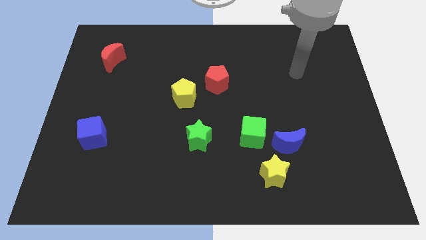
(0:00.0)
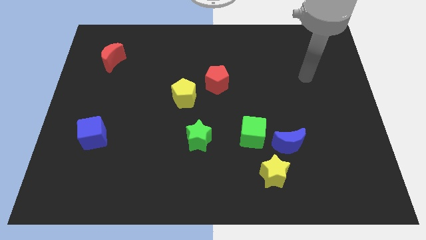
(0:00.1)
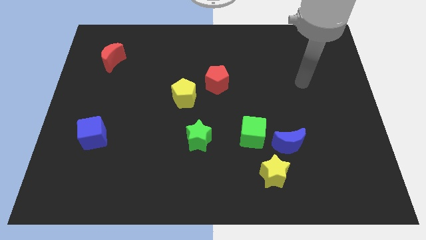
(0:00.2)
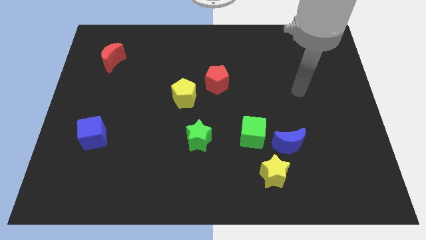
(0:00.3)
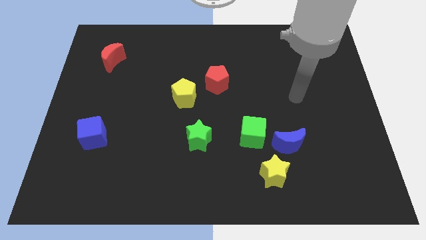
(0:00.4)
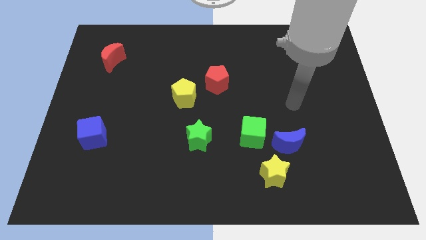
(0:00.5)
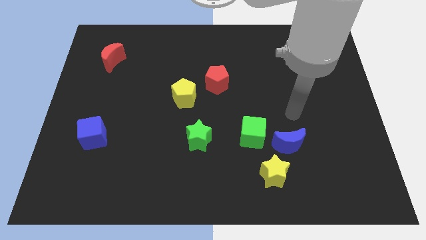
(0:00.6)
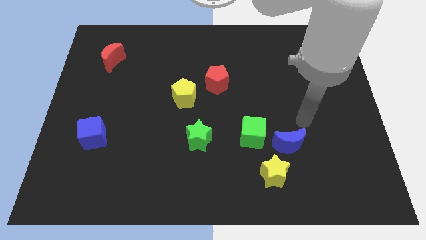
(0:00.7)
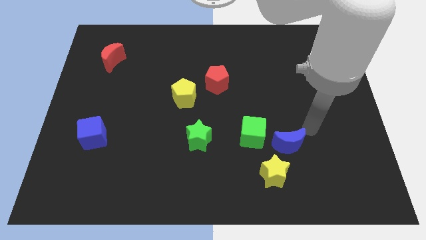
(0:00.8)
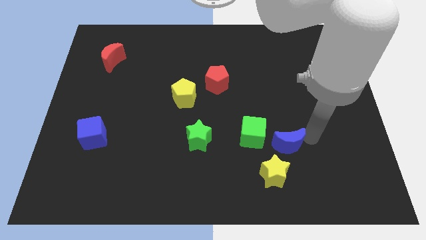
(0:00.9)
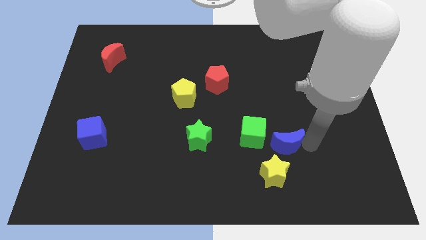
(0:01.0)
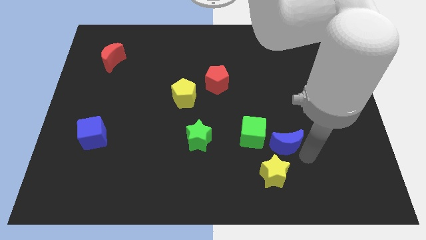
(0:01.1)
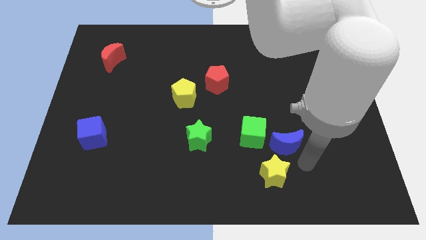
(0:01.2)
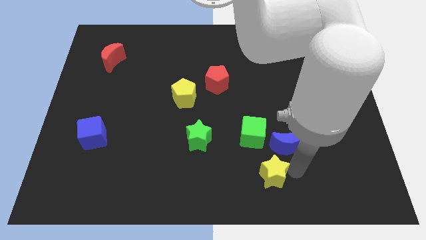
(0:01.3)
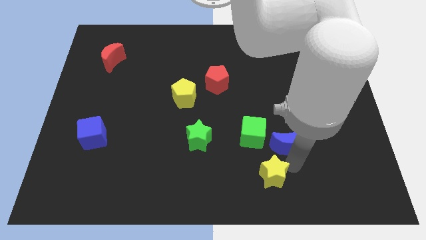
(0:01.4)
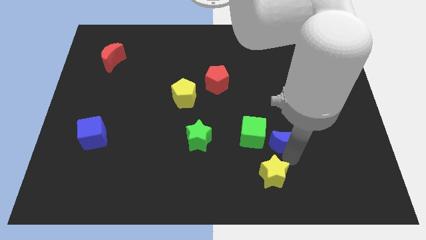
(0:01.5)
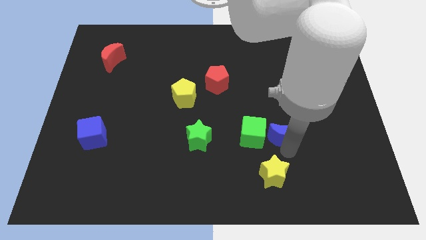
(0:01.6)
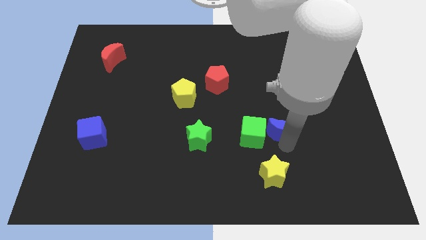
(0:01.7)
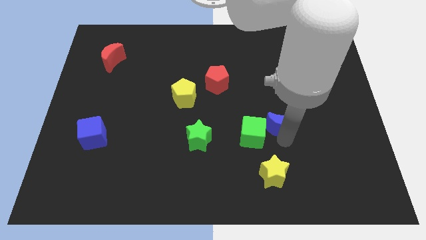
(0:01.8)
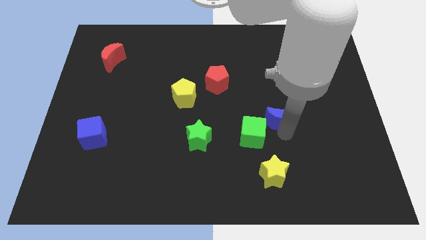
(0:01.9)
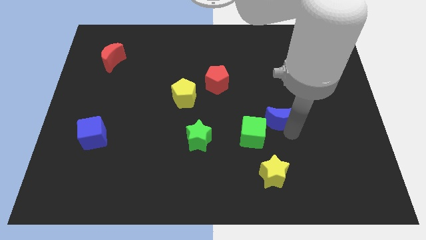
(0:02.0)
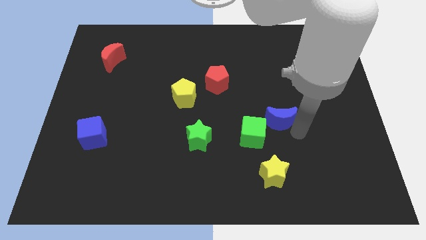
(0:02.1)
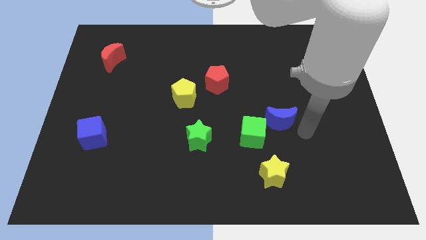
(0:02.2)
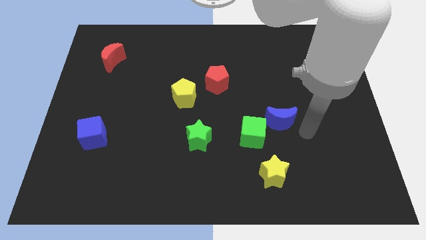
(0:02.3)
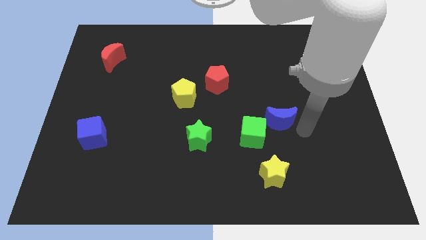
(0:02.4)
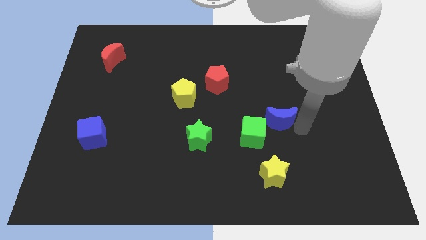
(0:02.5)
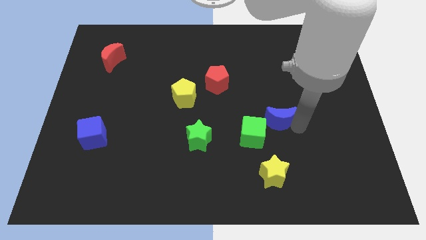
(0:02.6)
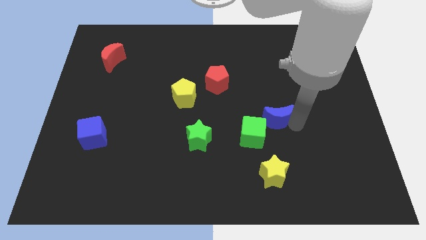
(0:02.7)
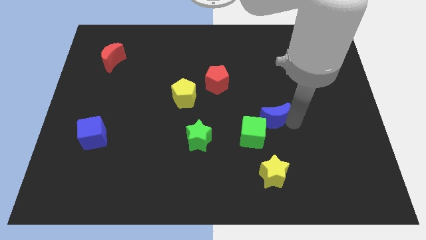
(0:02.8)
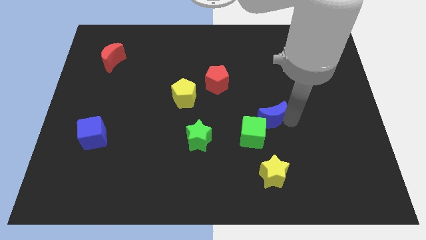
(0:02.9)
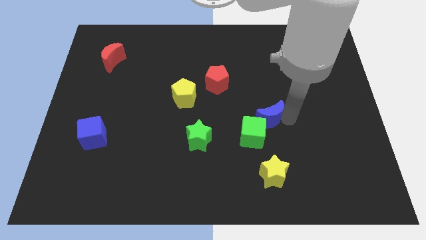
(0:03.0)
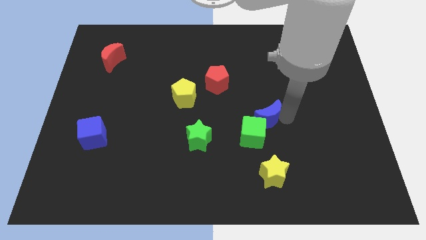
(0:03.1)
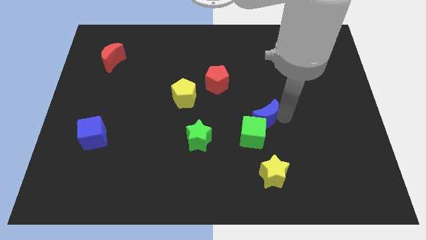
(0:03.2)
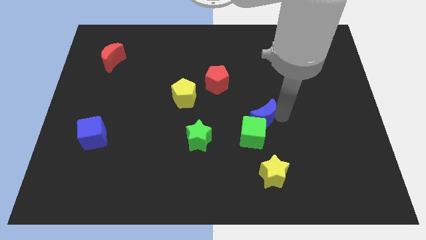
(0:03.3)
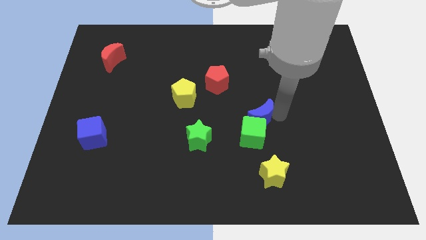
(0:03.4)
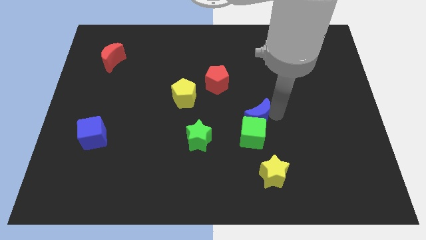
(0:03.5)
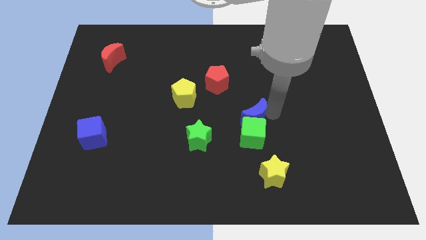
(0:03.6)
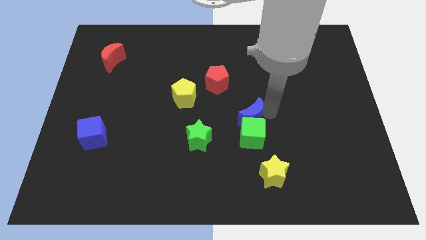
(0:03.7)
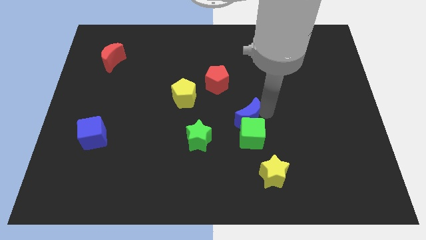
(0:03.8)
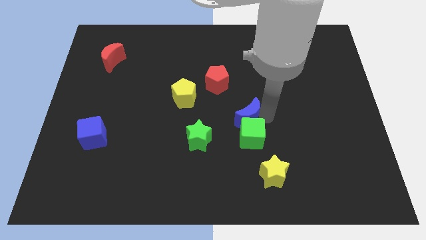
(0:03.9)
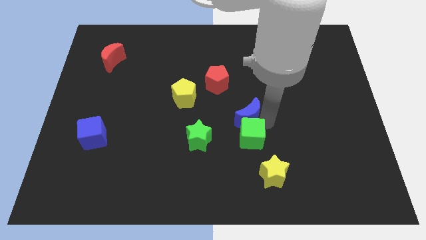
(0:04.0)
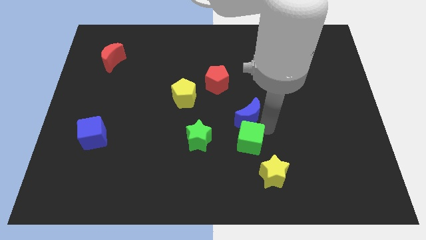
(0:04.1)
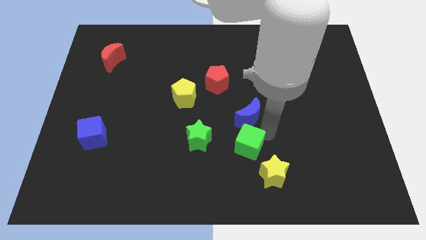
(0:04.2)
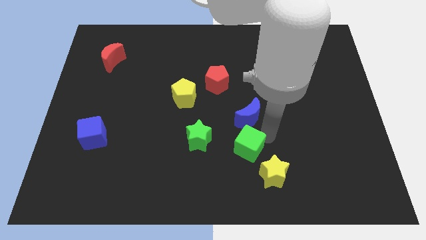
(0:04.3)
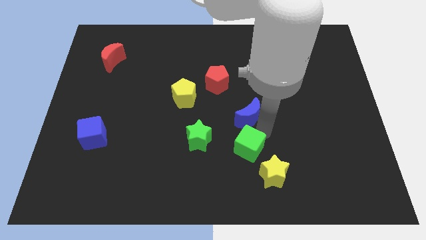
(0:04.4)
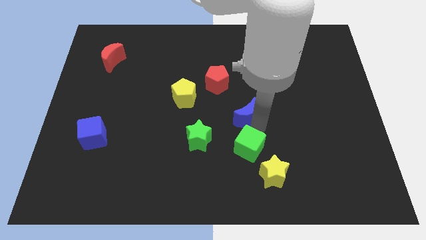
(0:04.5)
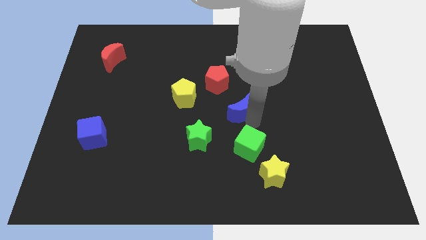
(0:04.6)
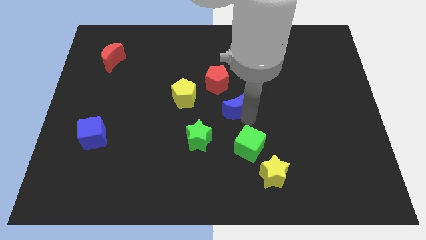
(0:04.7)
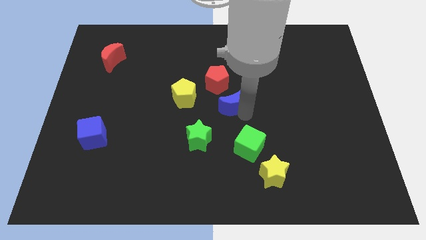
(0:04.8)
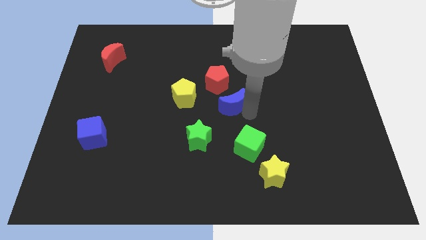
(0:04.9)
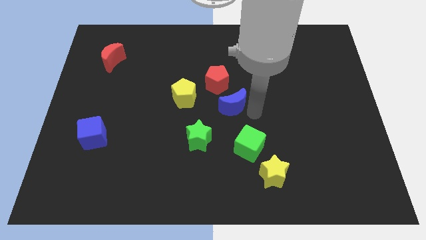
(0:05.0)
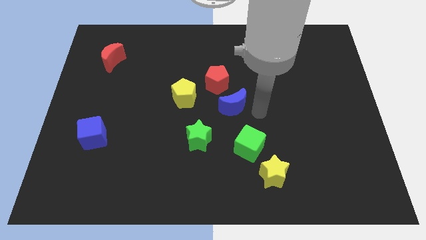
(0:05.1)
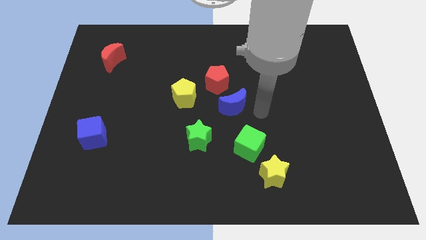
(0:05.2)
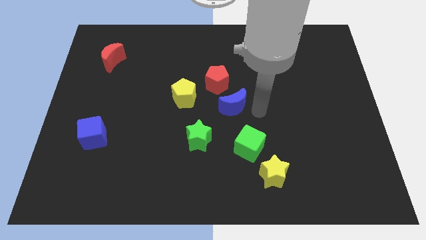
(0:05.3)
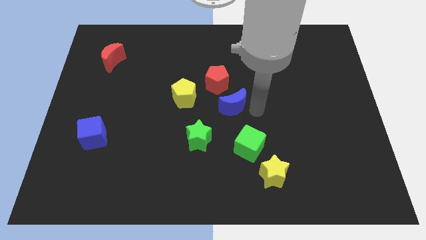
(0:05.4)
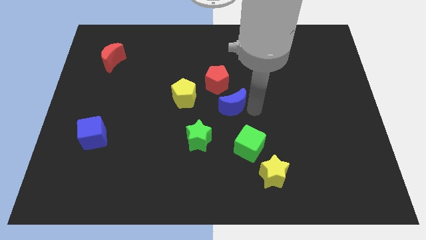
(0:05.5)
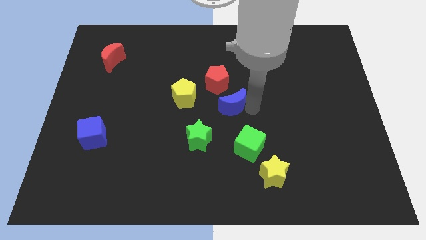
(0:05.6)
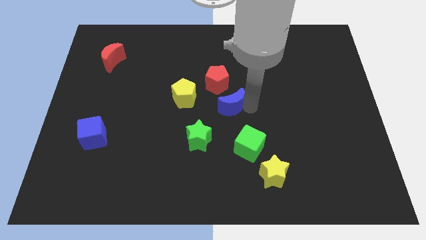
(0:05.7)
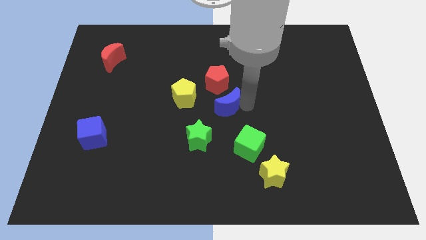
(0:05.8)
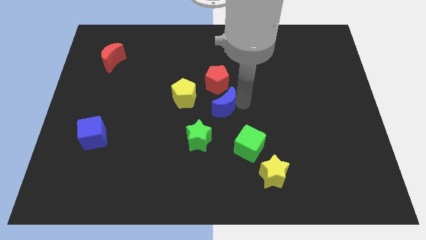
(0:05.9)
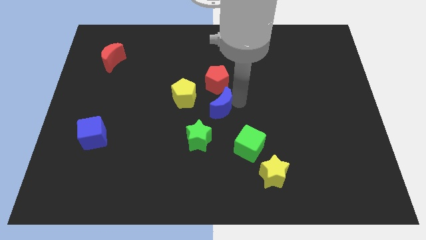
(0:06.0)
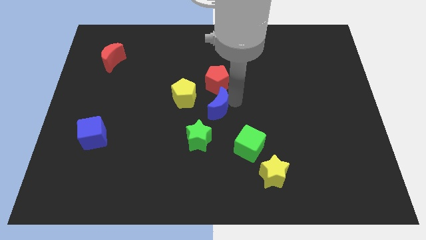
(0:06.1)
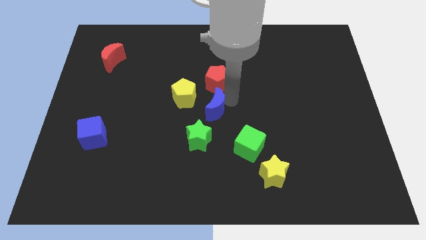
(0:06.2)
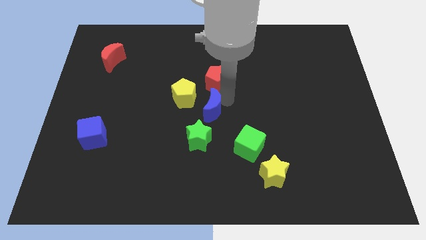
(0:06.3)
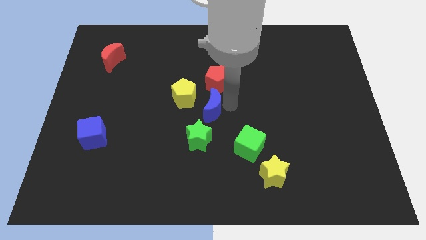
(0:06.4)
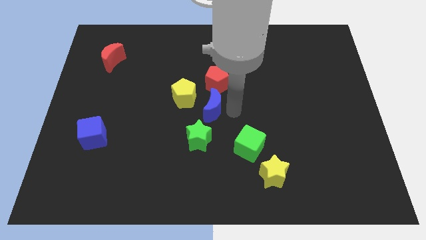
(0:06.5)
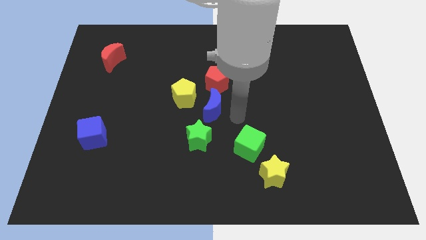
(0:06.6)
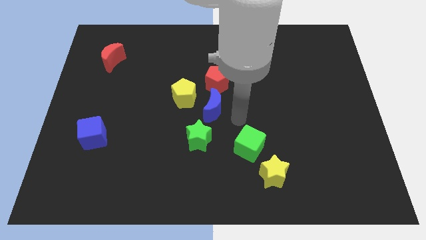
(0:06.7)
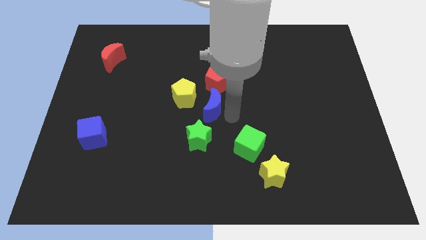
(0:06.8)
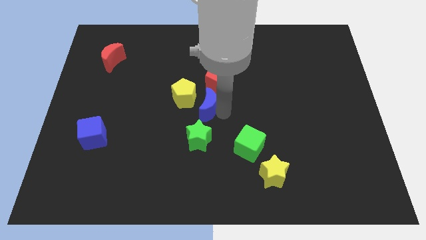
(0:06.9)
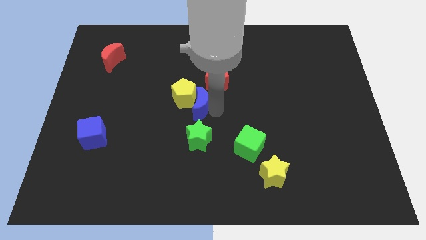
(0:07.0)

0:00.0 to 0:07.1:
put the blue moon close to the yellow pentagon
